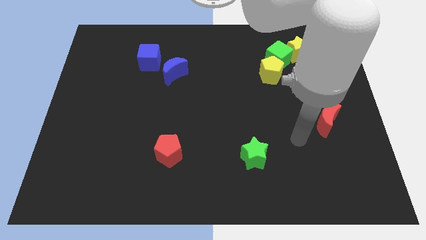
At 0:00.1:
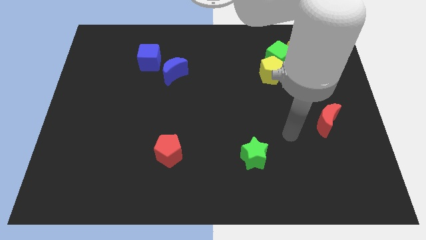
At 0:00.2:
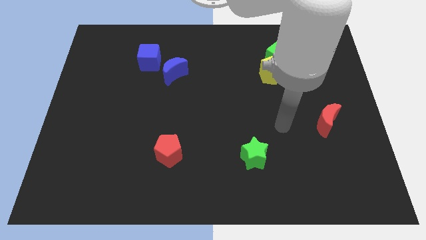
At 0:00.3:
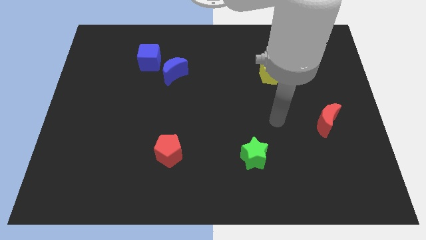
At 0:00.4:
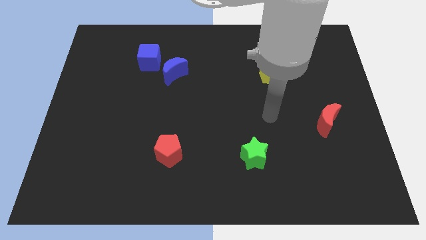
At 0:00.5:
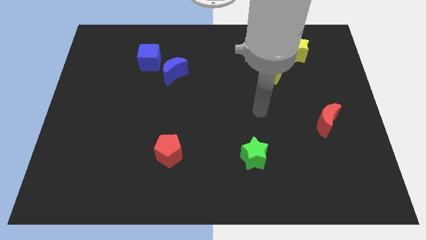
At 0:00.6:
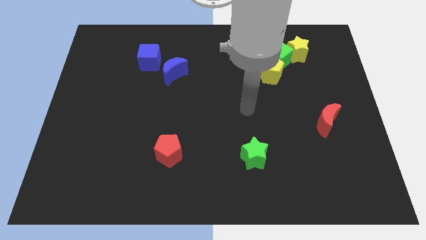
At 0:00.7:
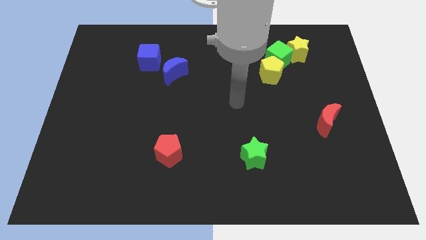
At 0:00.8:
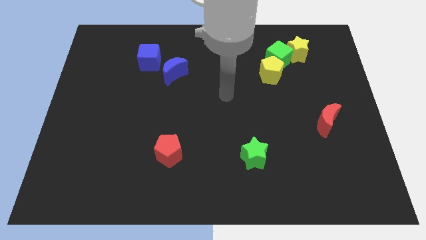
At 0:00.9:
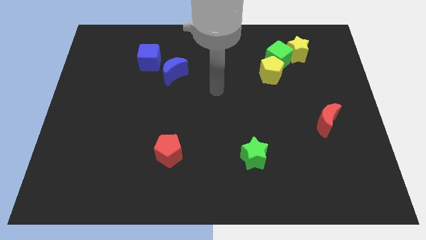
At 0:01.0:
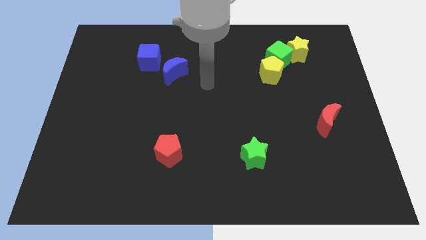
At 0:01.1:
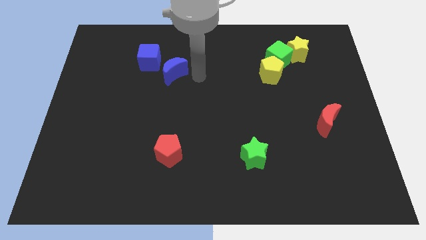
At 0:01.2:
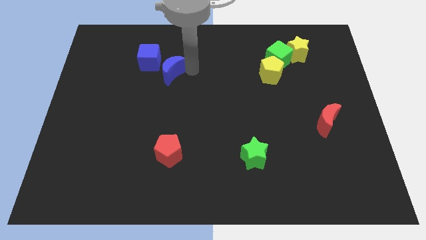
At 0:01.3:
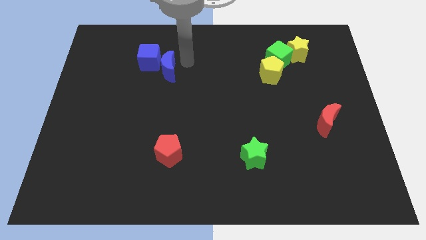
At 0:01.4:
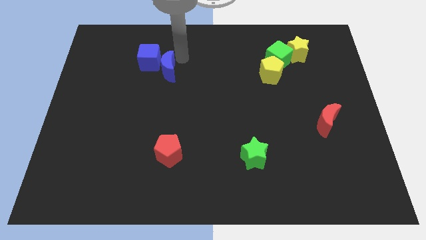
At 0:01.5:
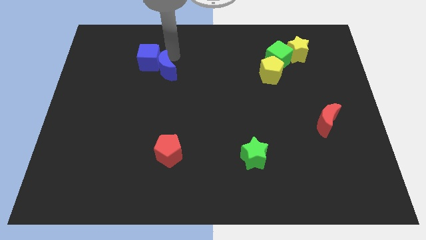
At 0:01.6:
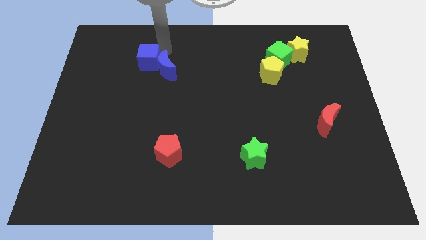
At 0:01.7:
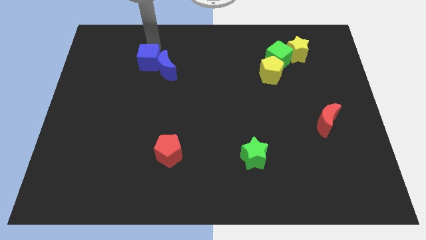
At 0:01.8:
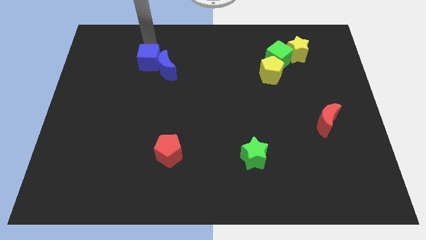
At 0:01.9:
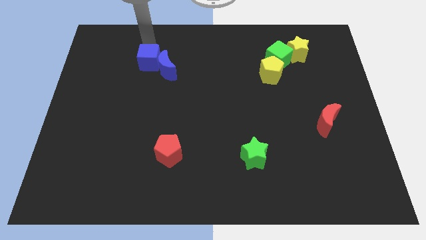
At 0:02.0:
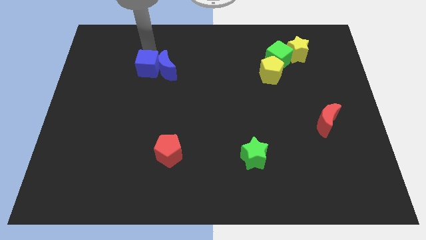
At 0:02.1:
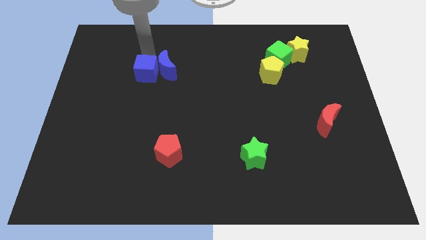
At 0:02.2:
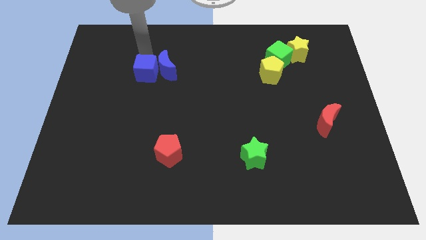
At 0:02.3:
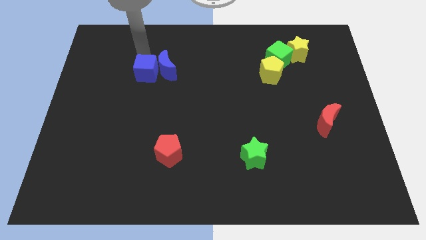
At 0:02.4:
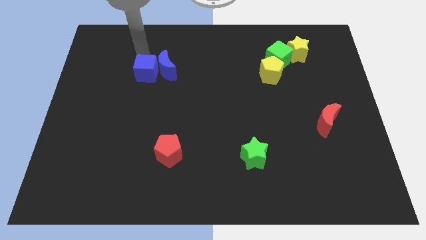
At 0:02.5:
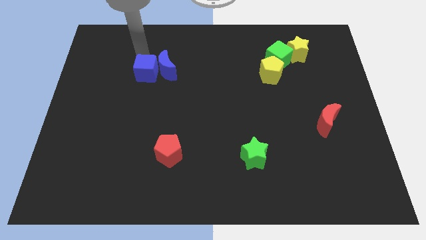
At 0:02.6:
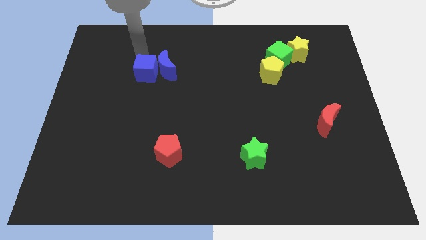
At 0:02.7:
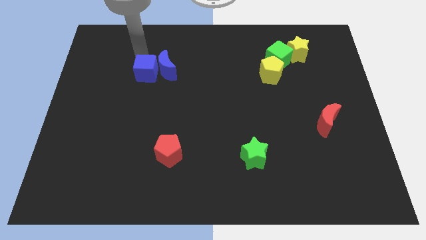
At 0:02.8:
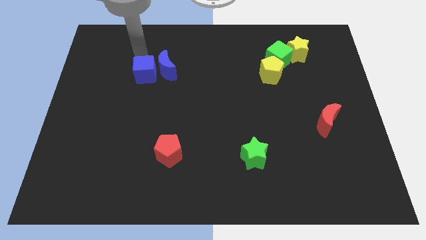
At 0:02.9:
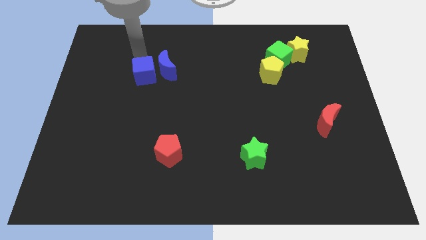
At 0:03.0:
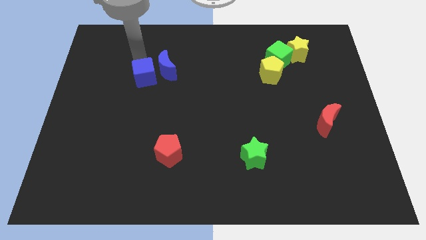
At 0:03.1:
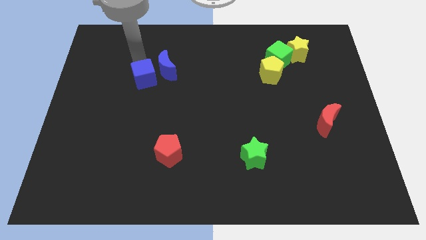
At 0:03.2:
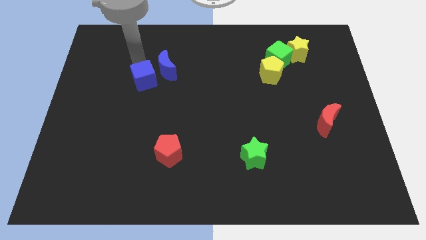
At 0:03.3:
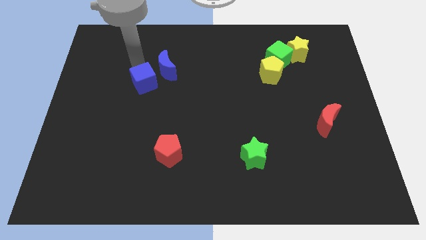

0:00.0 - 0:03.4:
move the blue cube downwards somewhat

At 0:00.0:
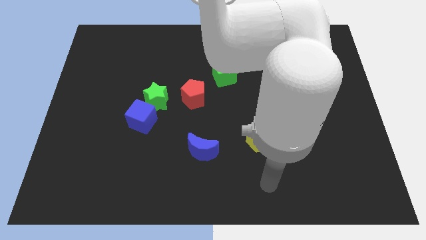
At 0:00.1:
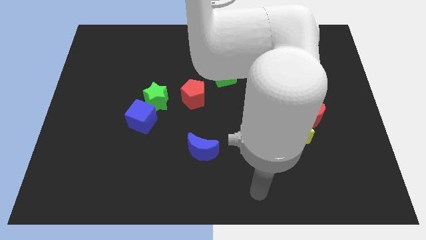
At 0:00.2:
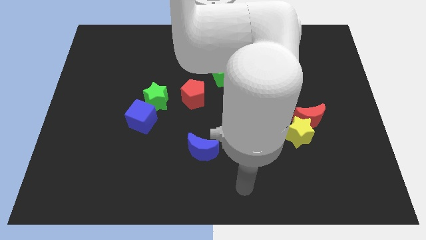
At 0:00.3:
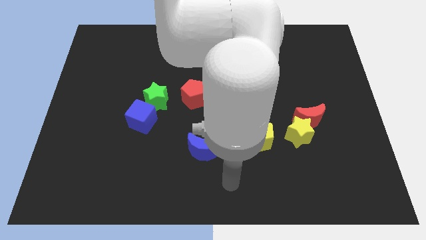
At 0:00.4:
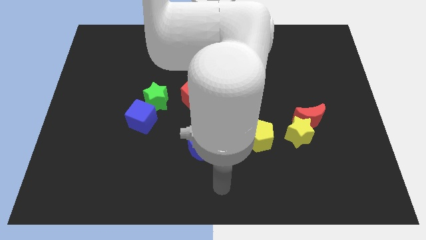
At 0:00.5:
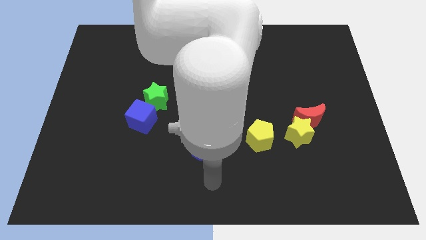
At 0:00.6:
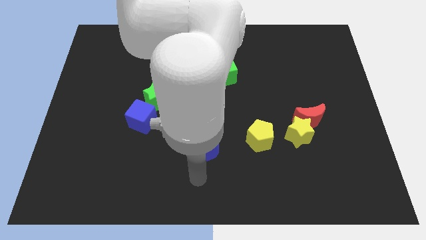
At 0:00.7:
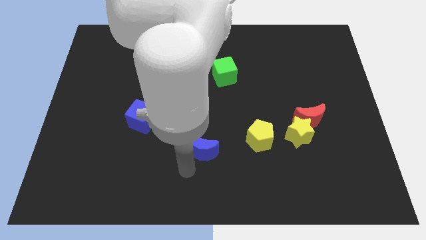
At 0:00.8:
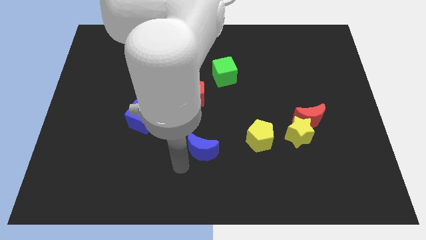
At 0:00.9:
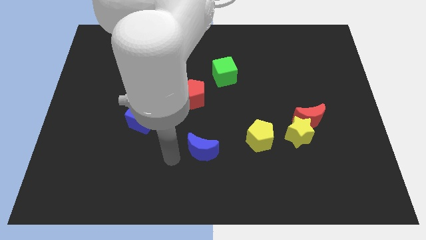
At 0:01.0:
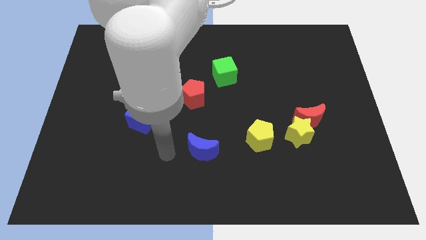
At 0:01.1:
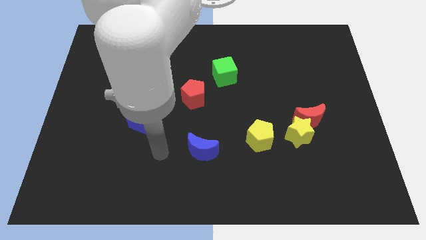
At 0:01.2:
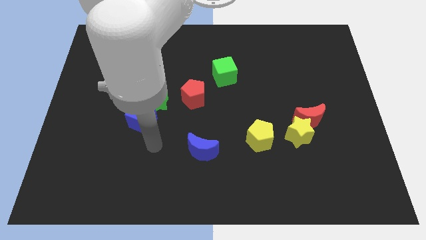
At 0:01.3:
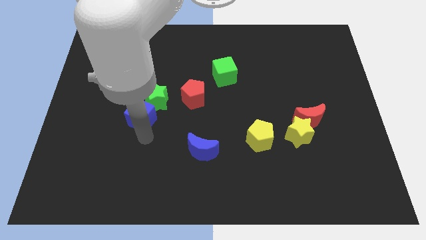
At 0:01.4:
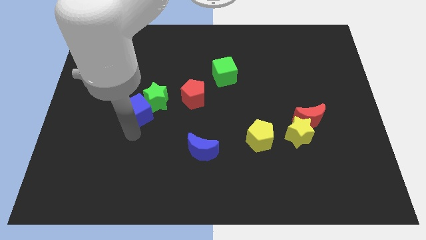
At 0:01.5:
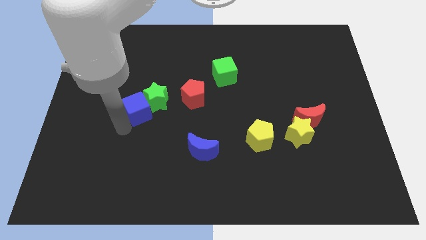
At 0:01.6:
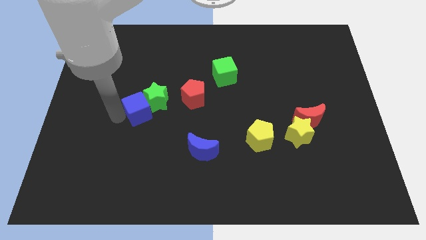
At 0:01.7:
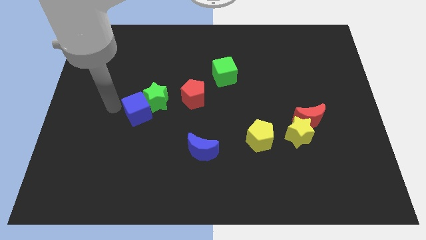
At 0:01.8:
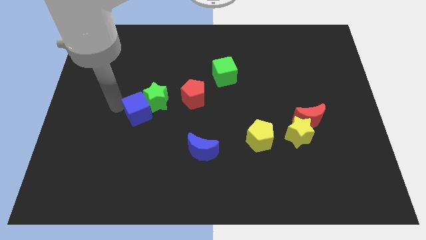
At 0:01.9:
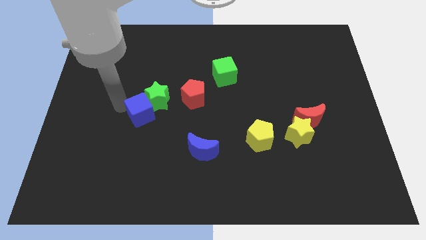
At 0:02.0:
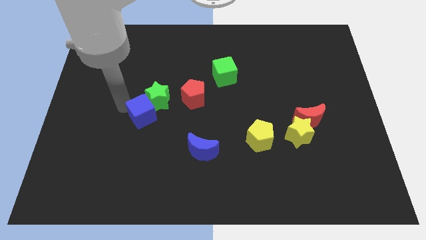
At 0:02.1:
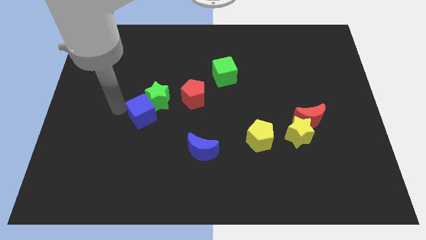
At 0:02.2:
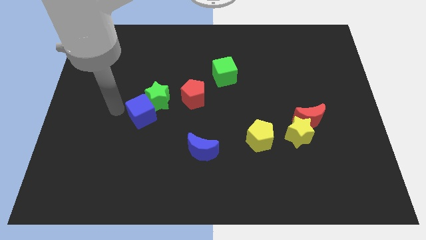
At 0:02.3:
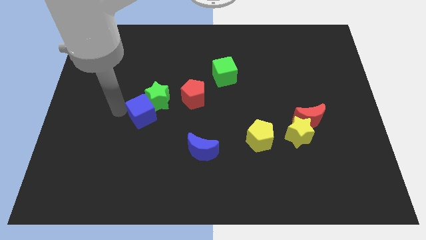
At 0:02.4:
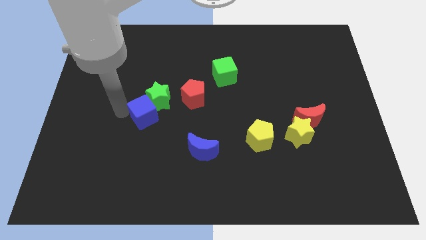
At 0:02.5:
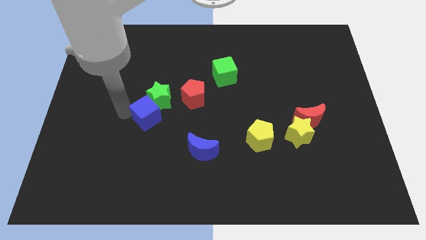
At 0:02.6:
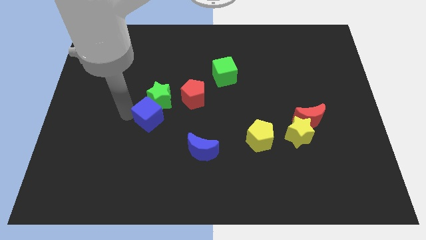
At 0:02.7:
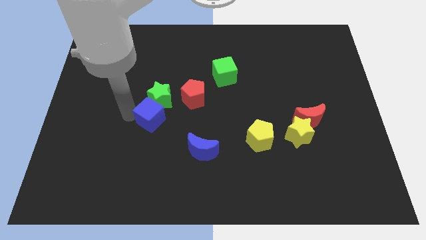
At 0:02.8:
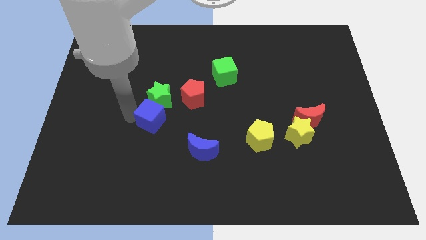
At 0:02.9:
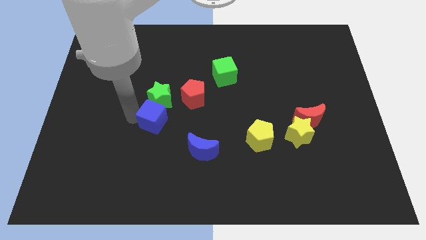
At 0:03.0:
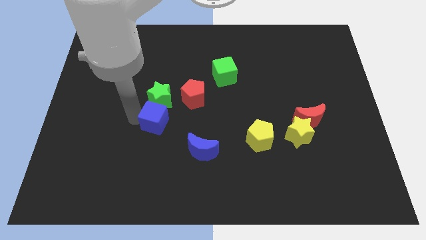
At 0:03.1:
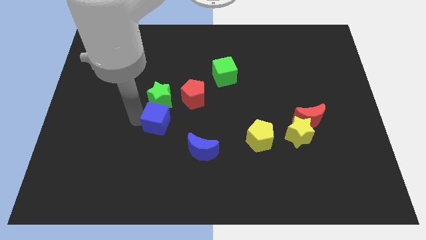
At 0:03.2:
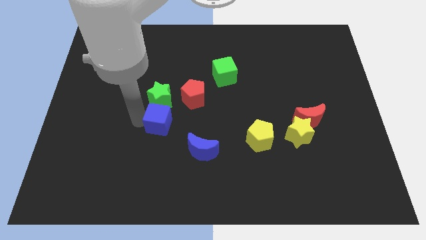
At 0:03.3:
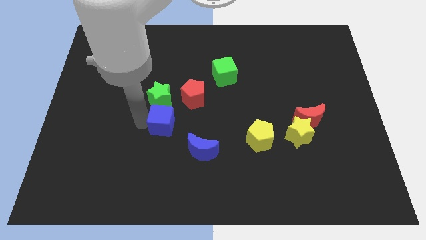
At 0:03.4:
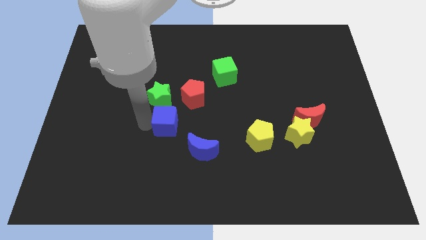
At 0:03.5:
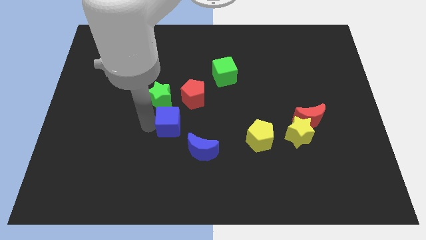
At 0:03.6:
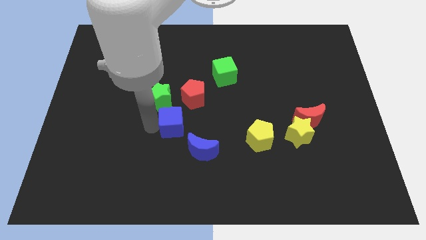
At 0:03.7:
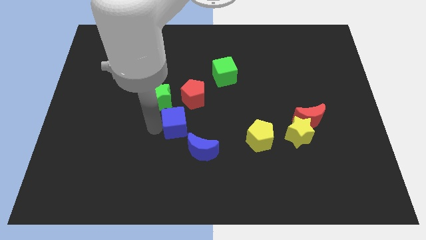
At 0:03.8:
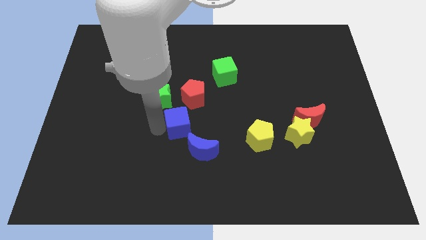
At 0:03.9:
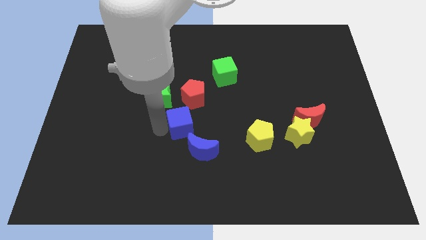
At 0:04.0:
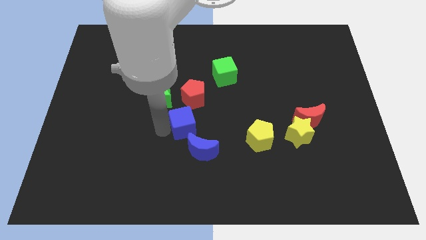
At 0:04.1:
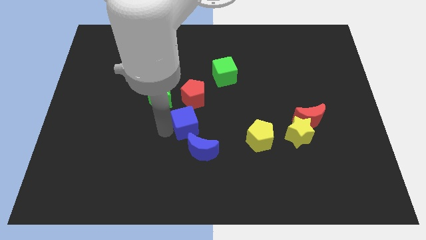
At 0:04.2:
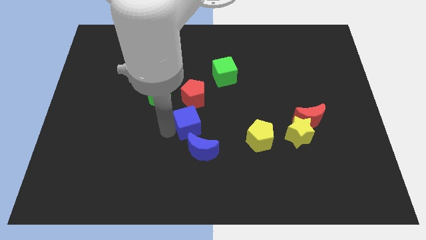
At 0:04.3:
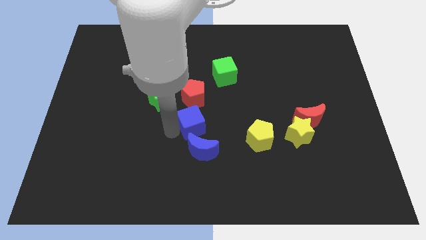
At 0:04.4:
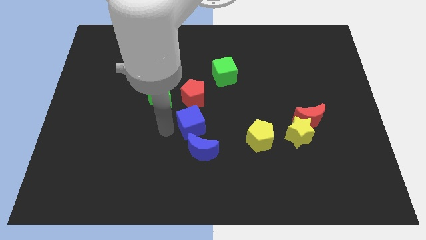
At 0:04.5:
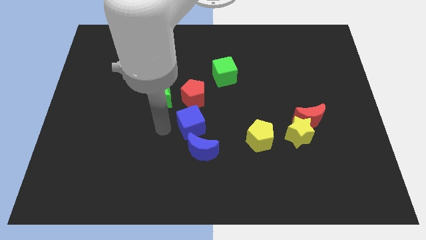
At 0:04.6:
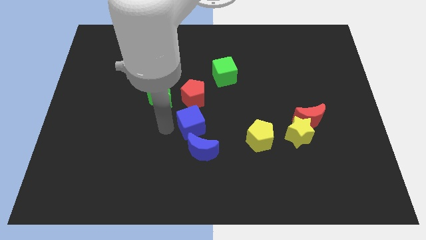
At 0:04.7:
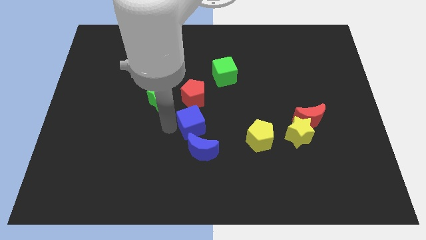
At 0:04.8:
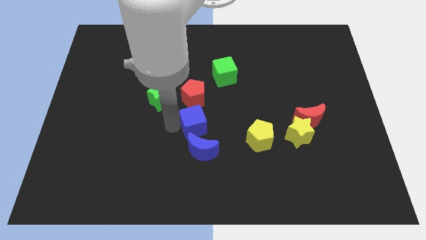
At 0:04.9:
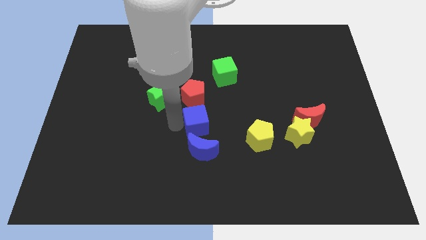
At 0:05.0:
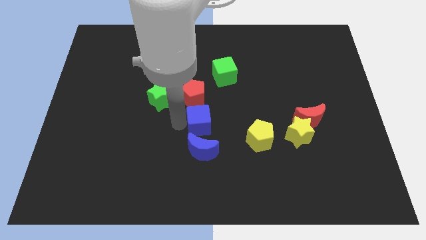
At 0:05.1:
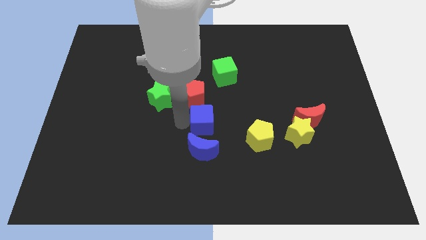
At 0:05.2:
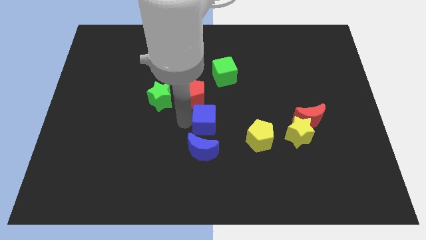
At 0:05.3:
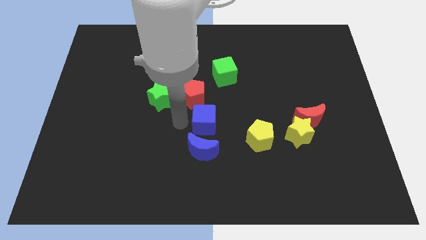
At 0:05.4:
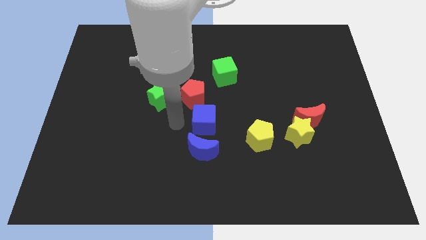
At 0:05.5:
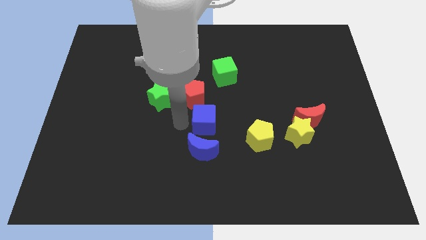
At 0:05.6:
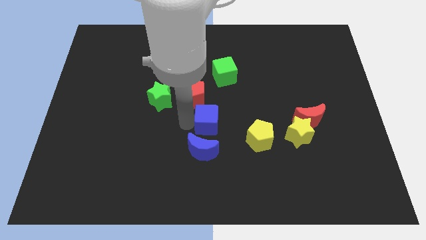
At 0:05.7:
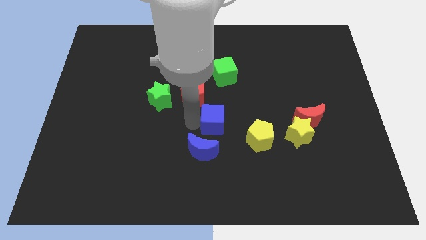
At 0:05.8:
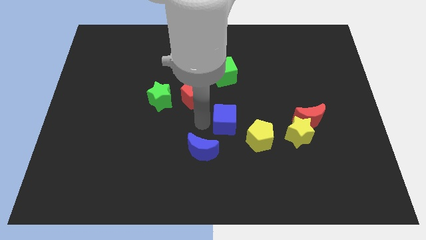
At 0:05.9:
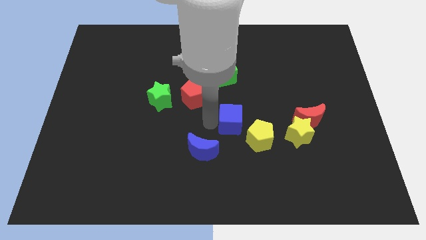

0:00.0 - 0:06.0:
push the blue cube right
